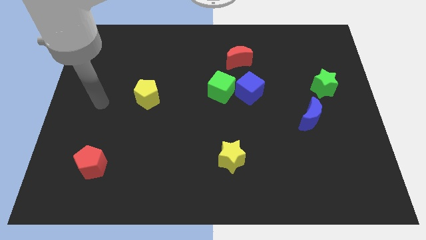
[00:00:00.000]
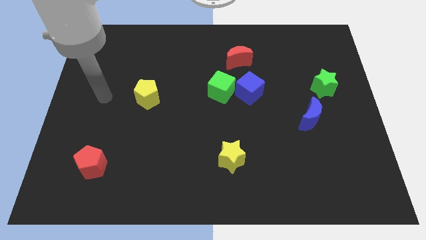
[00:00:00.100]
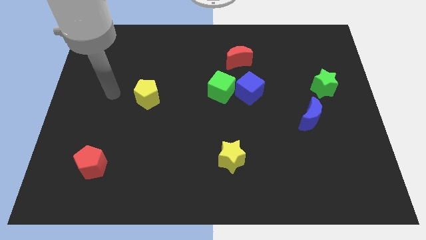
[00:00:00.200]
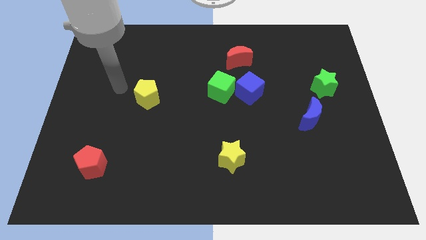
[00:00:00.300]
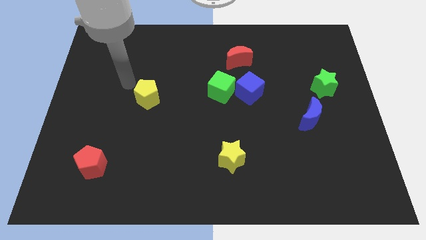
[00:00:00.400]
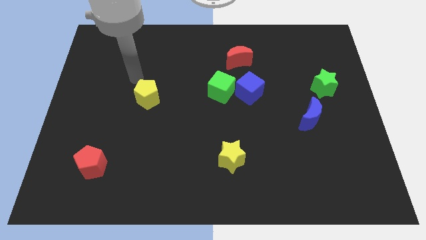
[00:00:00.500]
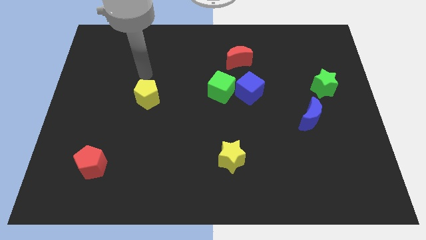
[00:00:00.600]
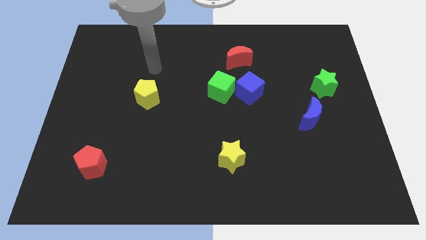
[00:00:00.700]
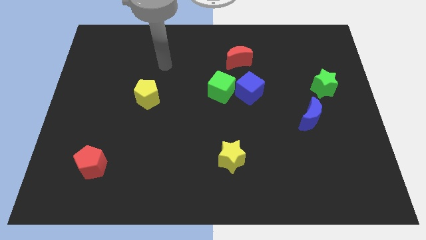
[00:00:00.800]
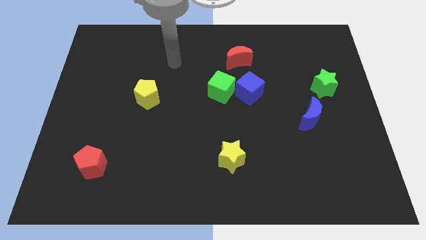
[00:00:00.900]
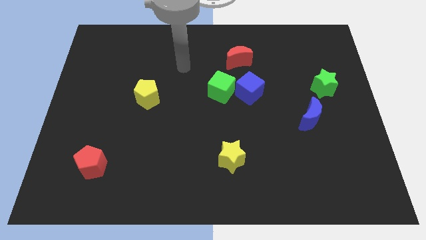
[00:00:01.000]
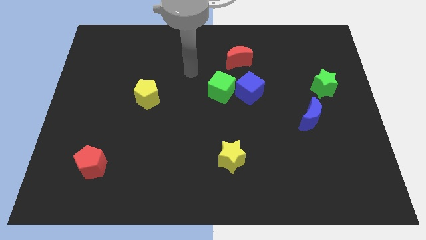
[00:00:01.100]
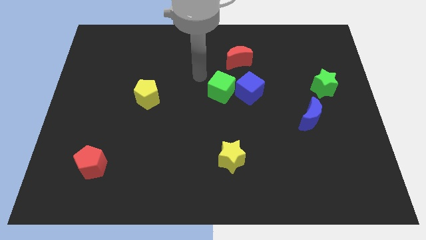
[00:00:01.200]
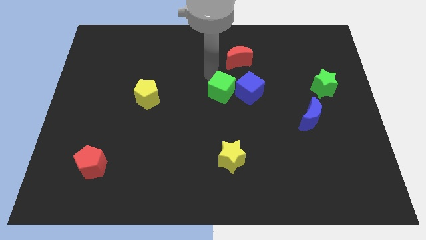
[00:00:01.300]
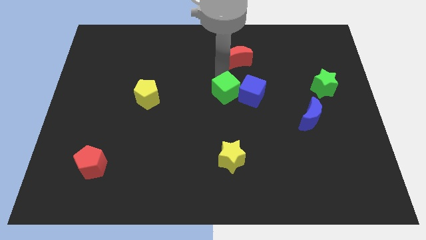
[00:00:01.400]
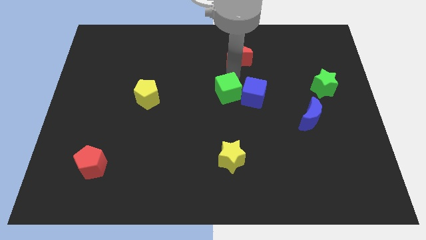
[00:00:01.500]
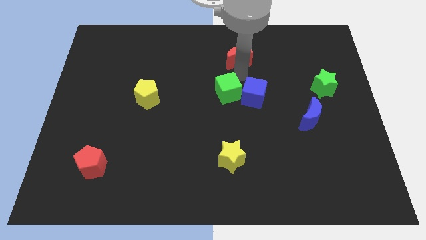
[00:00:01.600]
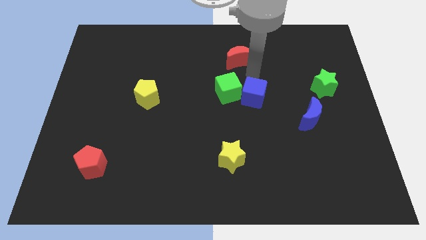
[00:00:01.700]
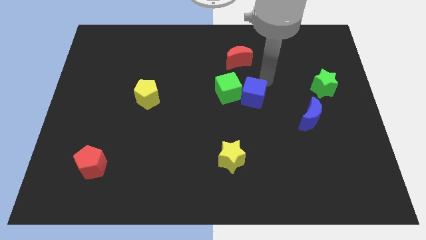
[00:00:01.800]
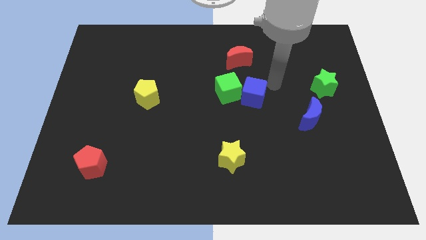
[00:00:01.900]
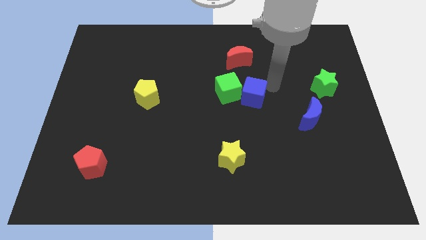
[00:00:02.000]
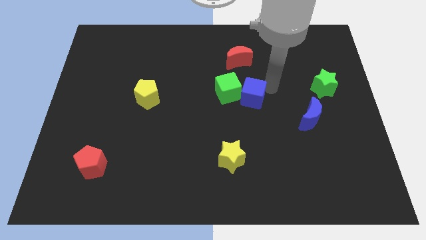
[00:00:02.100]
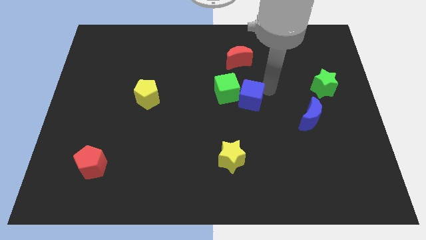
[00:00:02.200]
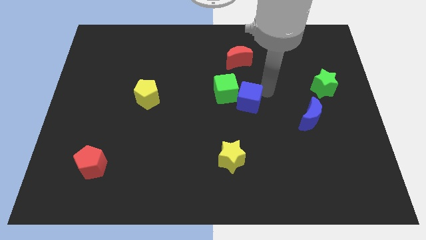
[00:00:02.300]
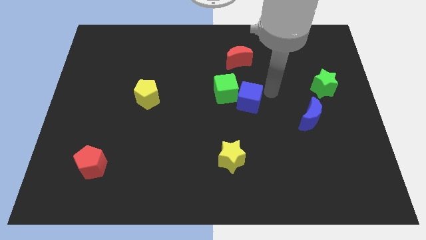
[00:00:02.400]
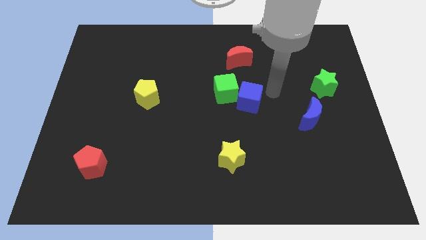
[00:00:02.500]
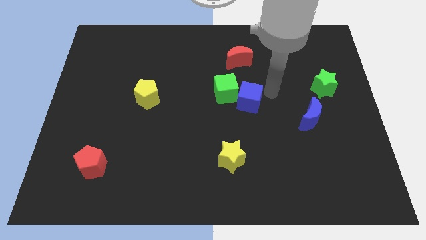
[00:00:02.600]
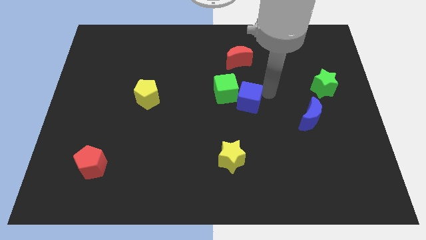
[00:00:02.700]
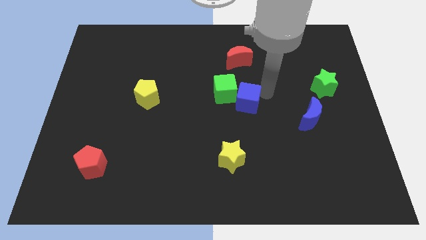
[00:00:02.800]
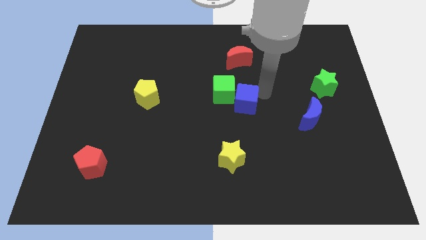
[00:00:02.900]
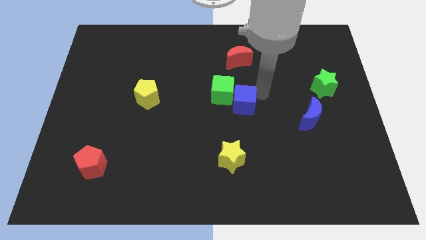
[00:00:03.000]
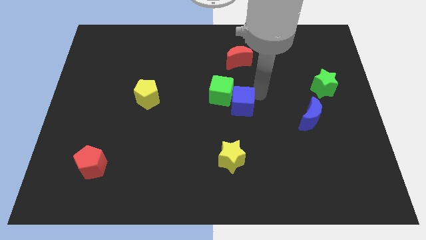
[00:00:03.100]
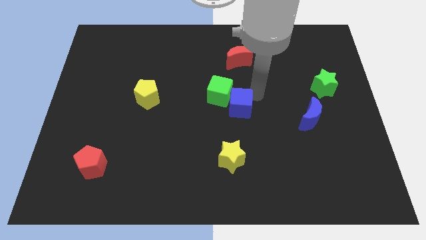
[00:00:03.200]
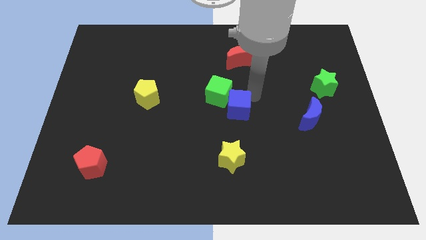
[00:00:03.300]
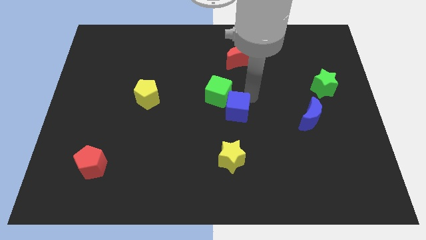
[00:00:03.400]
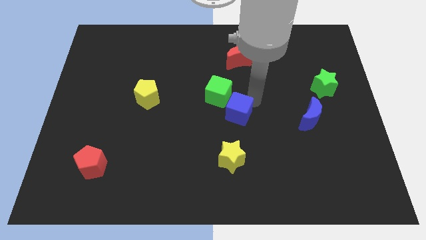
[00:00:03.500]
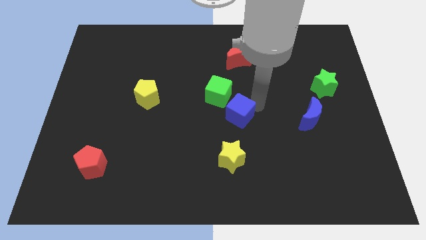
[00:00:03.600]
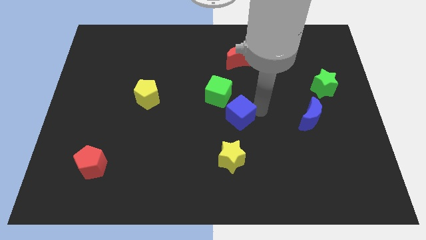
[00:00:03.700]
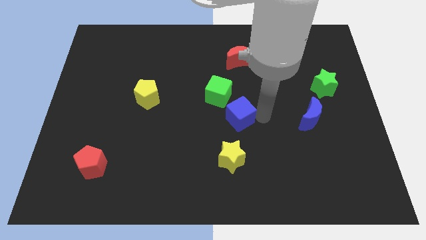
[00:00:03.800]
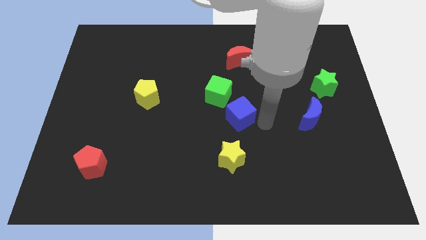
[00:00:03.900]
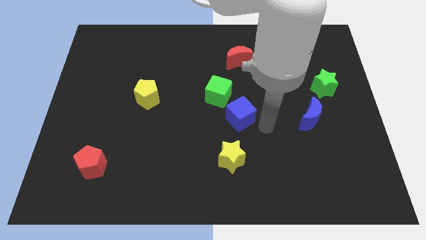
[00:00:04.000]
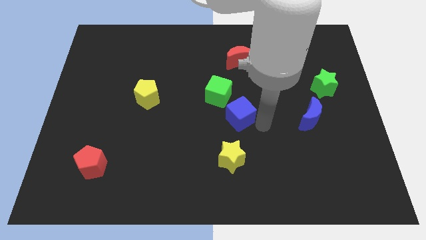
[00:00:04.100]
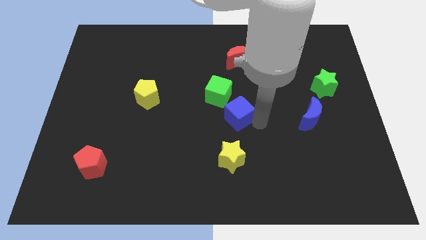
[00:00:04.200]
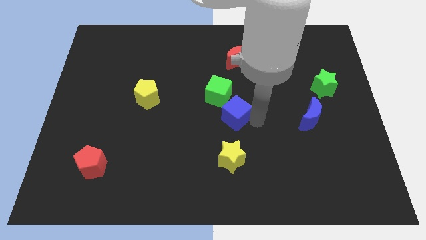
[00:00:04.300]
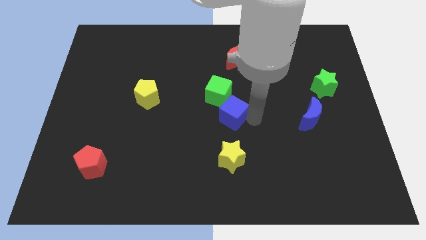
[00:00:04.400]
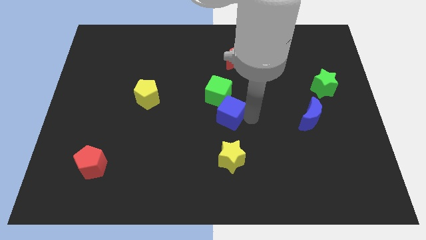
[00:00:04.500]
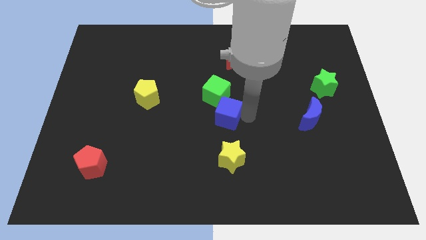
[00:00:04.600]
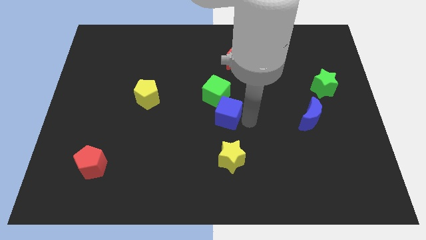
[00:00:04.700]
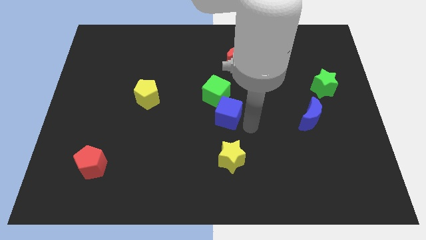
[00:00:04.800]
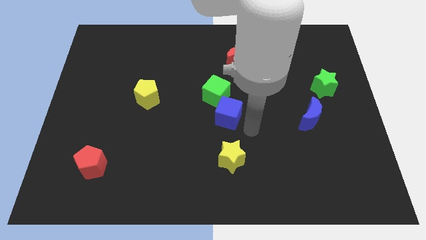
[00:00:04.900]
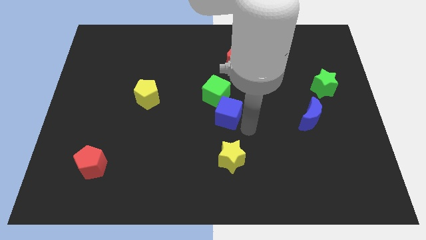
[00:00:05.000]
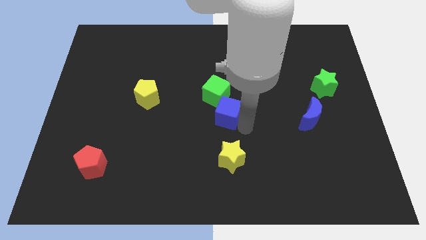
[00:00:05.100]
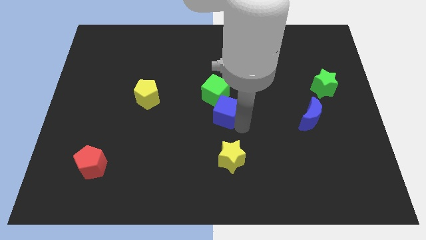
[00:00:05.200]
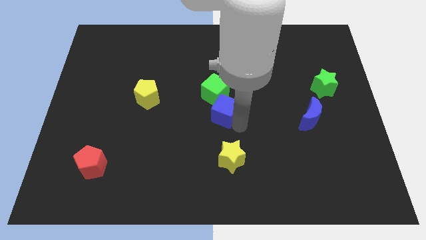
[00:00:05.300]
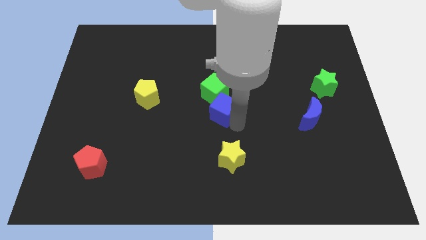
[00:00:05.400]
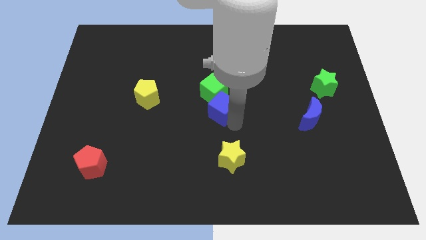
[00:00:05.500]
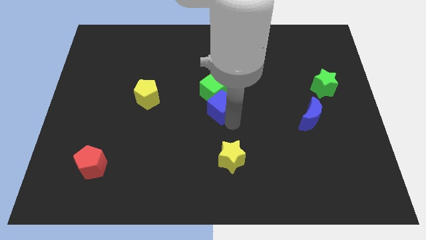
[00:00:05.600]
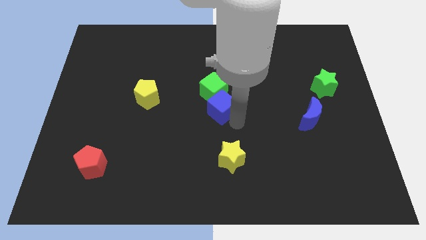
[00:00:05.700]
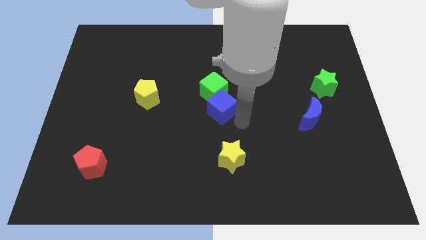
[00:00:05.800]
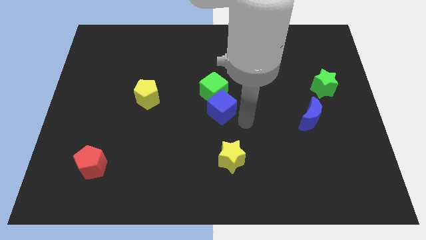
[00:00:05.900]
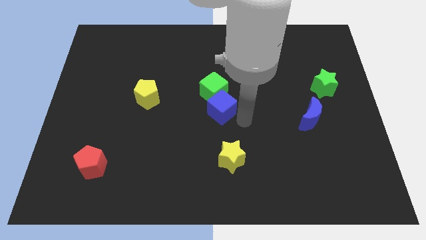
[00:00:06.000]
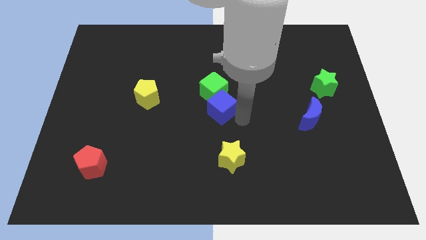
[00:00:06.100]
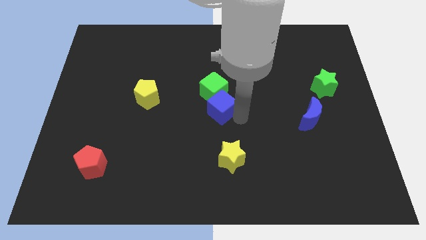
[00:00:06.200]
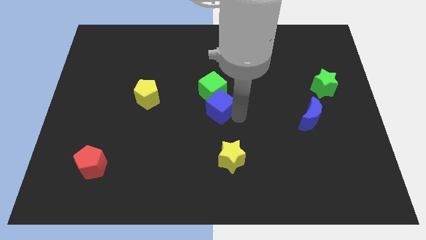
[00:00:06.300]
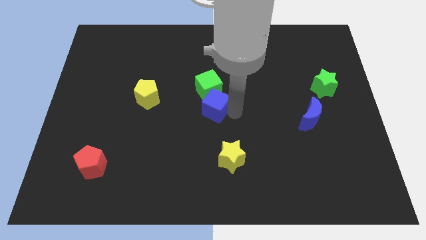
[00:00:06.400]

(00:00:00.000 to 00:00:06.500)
push the blue cube left somewhat

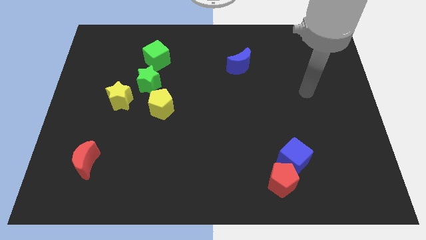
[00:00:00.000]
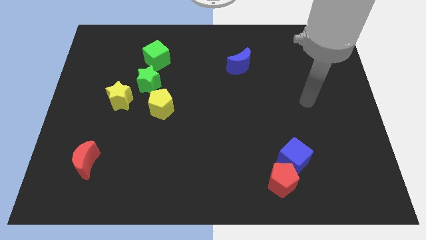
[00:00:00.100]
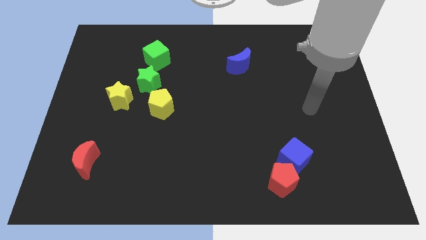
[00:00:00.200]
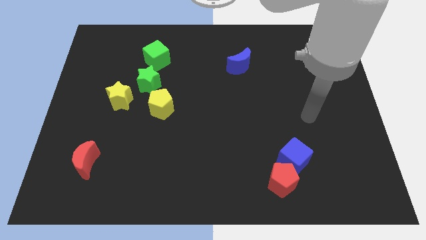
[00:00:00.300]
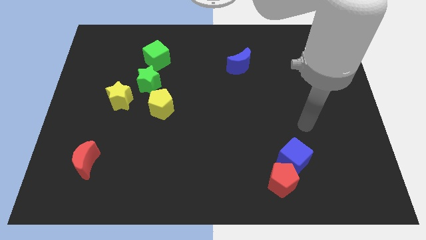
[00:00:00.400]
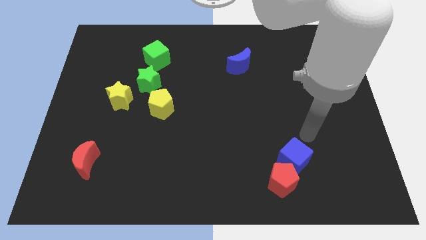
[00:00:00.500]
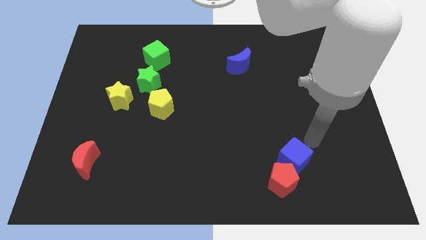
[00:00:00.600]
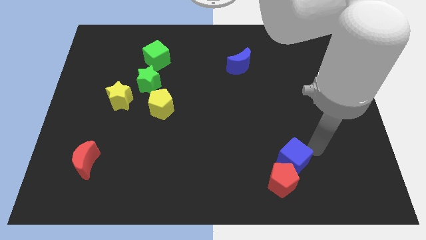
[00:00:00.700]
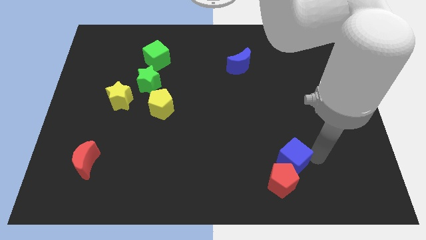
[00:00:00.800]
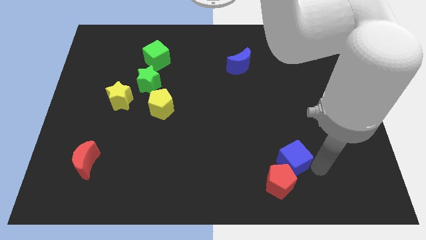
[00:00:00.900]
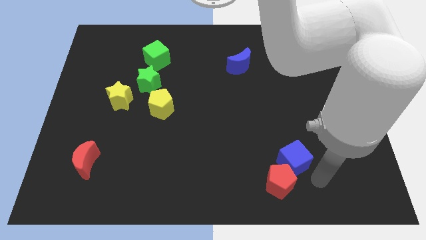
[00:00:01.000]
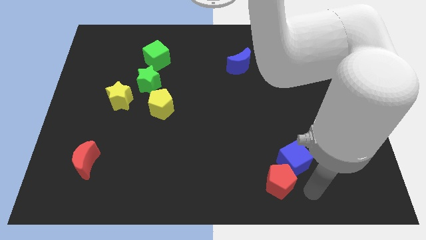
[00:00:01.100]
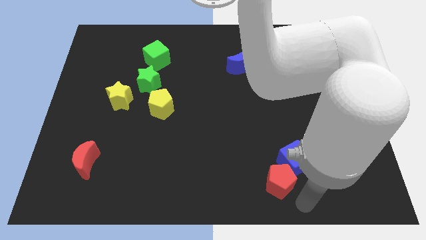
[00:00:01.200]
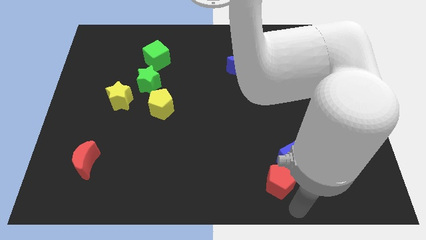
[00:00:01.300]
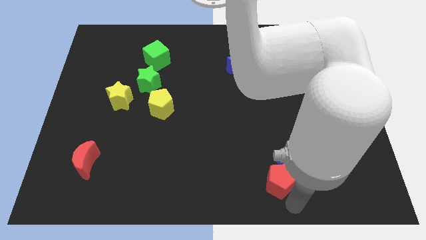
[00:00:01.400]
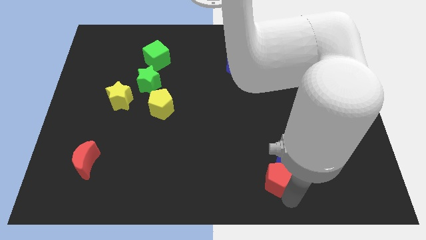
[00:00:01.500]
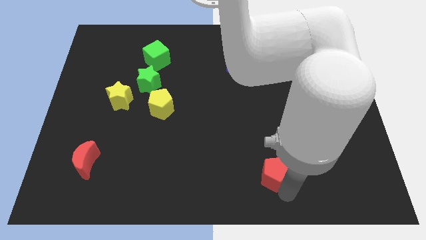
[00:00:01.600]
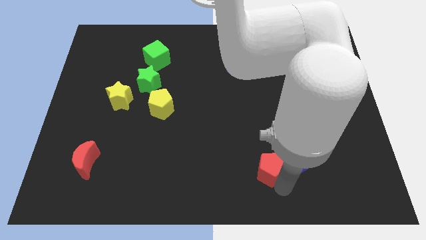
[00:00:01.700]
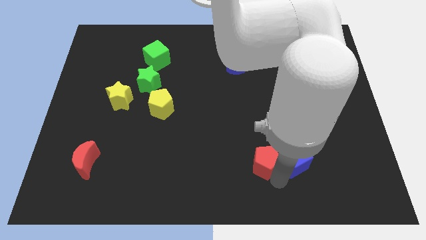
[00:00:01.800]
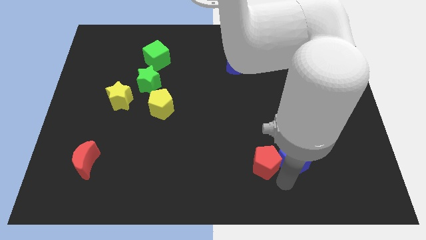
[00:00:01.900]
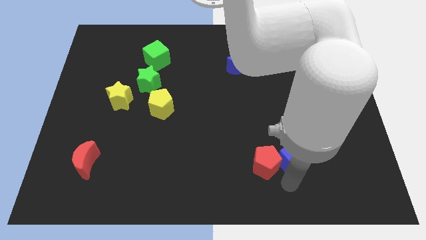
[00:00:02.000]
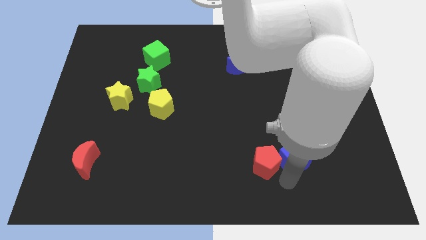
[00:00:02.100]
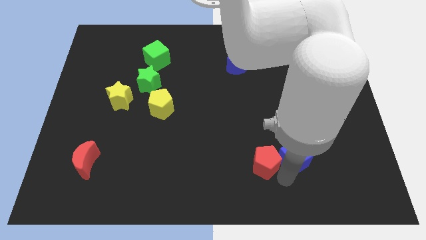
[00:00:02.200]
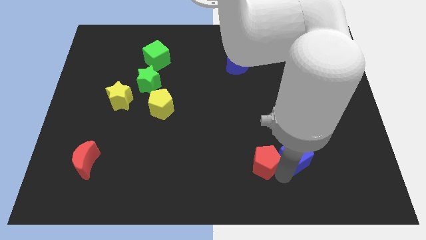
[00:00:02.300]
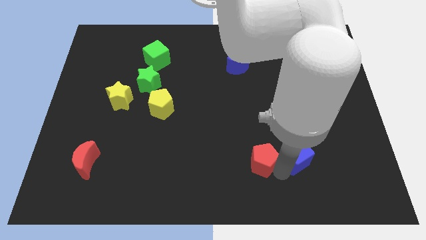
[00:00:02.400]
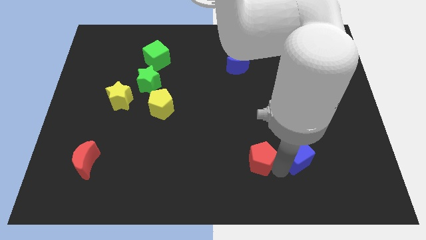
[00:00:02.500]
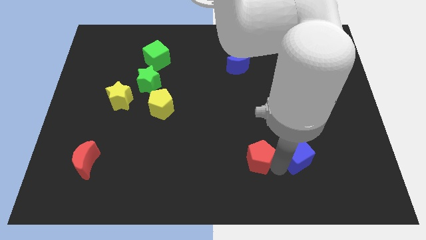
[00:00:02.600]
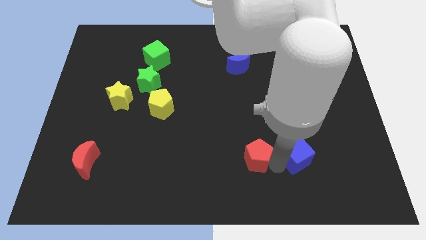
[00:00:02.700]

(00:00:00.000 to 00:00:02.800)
slide the red pentagon diagonally upwards and to the left somewhat
